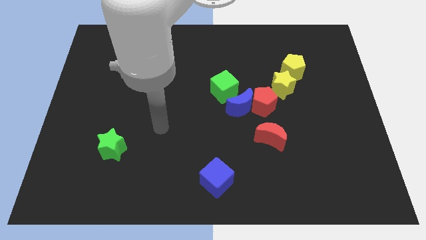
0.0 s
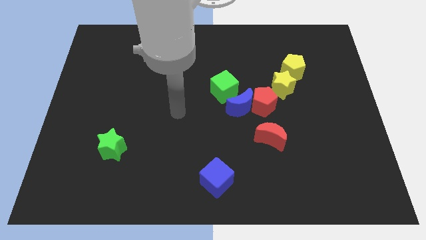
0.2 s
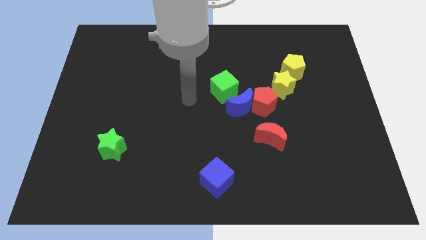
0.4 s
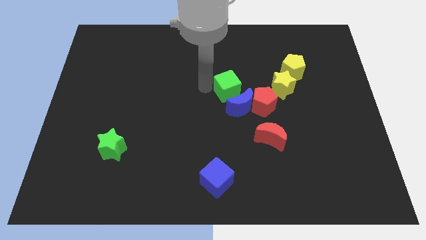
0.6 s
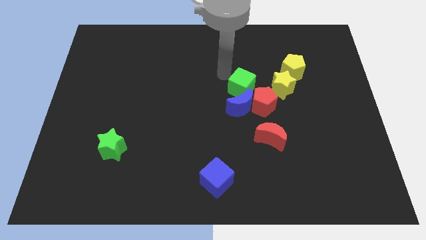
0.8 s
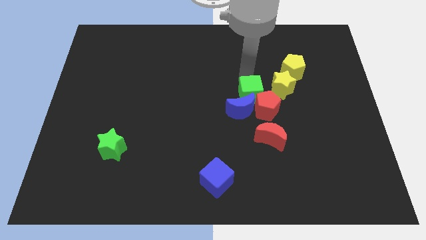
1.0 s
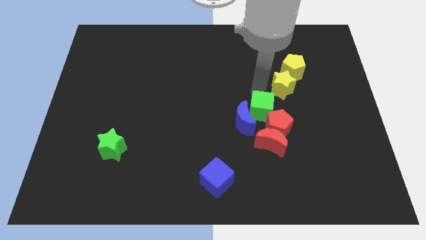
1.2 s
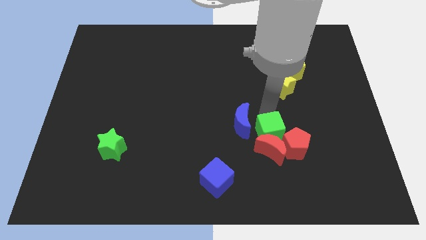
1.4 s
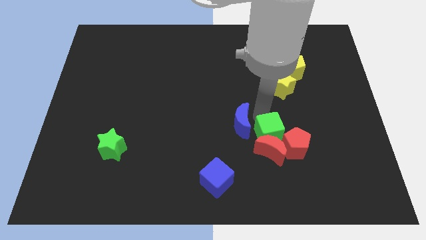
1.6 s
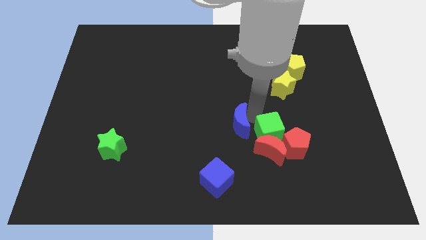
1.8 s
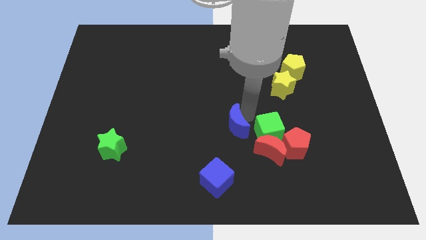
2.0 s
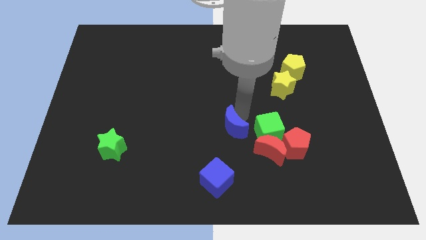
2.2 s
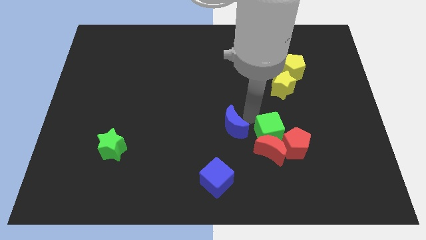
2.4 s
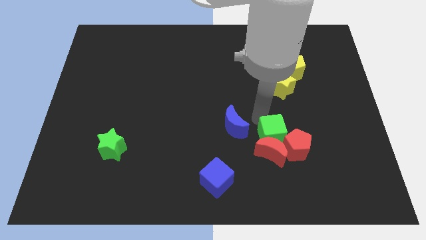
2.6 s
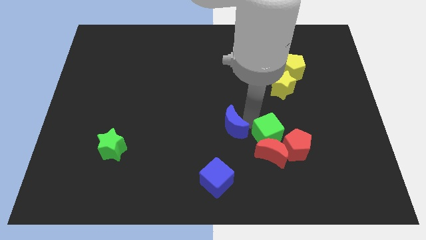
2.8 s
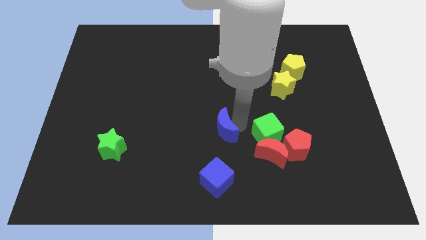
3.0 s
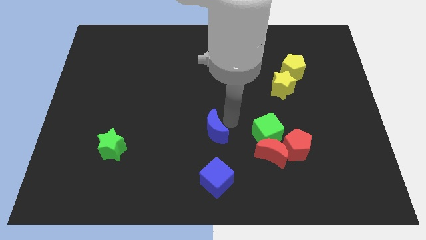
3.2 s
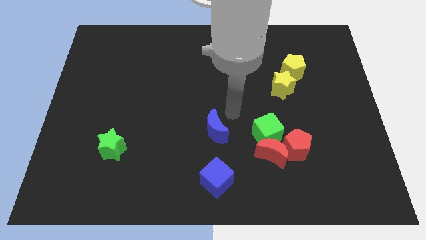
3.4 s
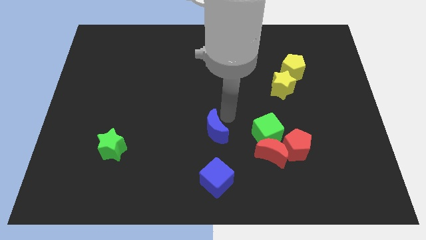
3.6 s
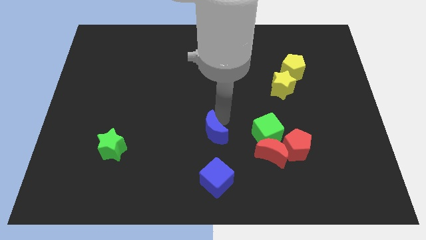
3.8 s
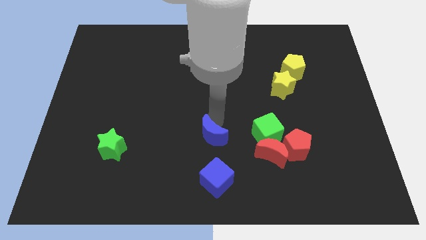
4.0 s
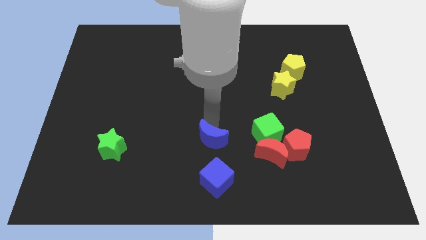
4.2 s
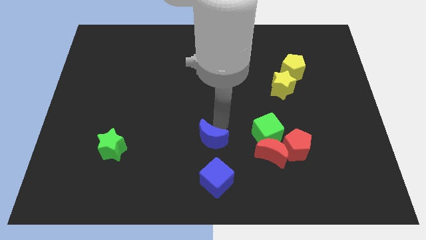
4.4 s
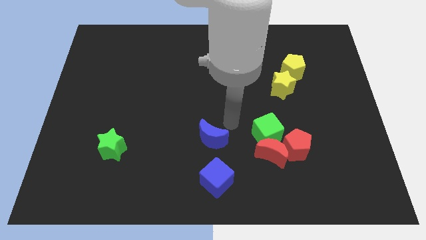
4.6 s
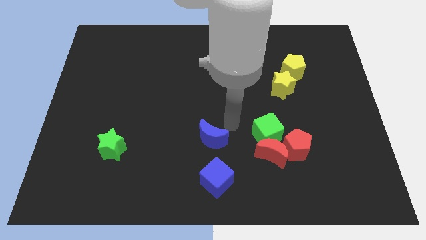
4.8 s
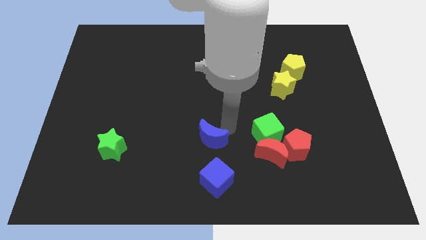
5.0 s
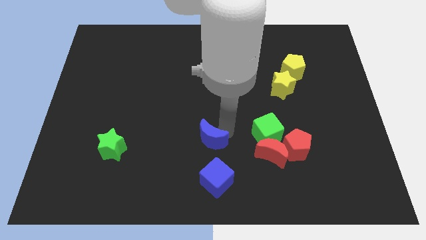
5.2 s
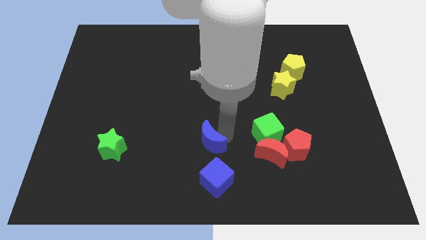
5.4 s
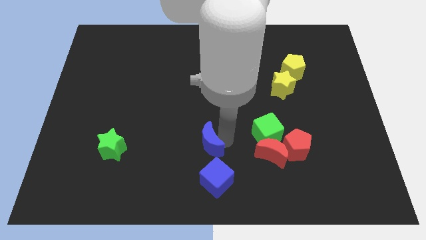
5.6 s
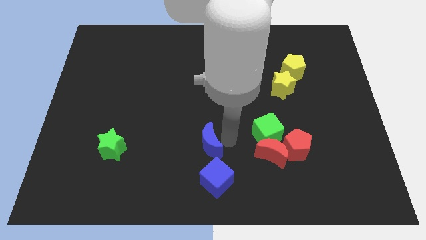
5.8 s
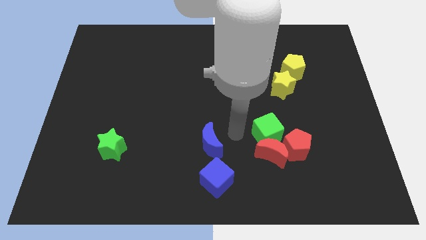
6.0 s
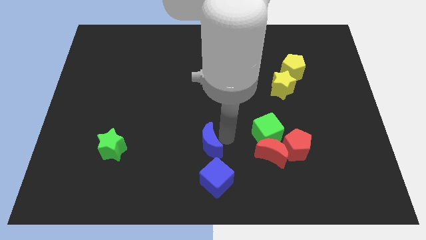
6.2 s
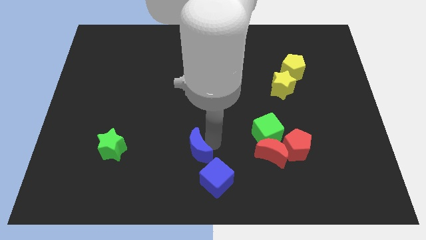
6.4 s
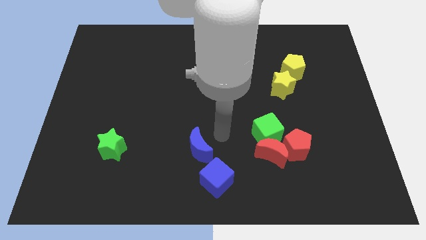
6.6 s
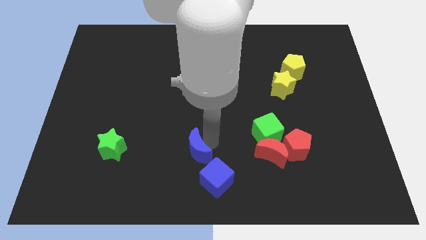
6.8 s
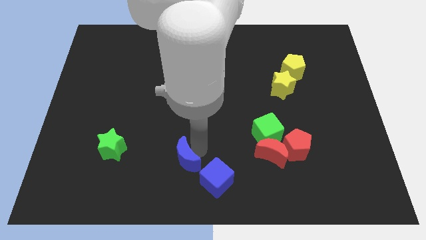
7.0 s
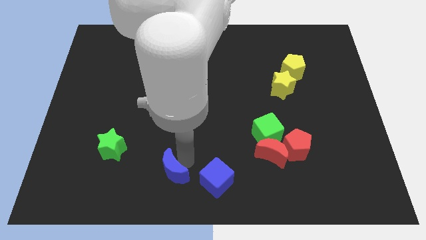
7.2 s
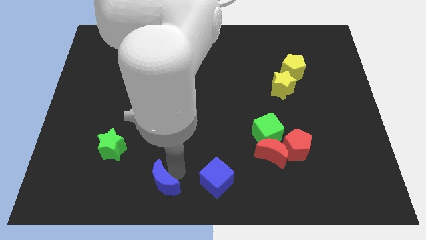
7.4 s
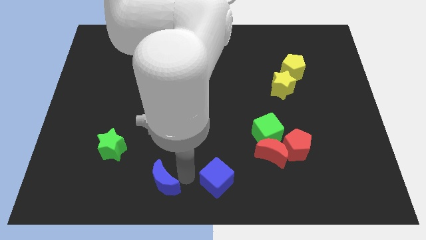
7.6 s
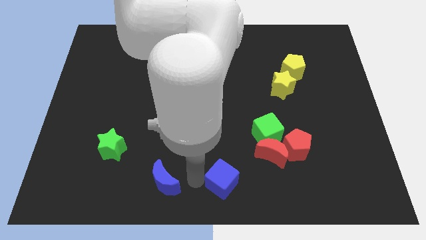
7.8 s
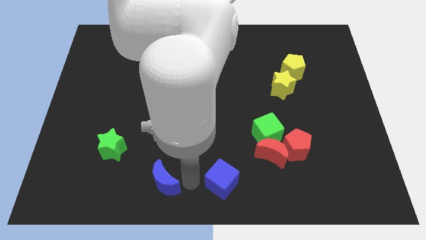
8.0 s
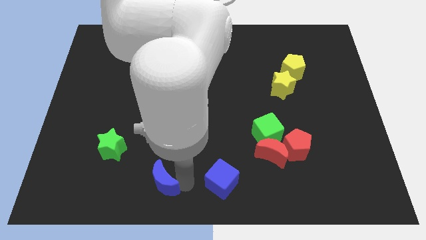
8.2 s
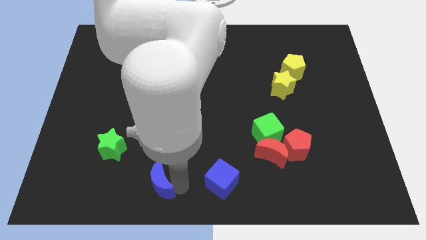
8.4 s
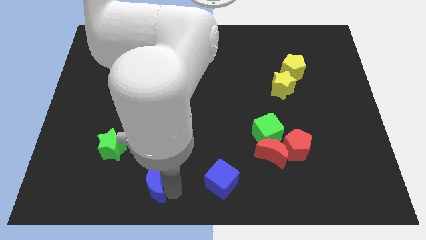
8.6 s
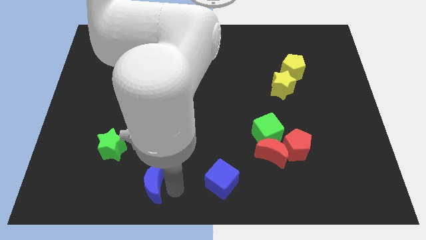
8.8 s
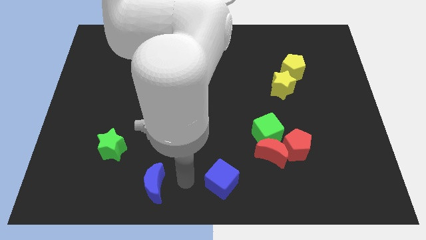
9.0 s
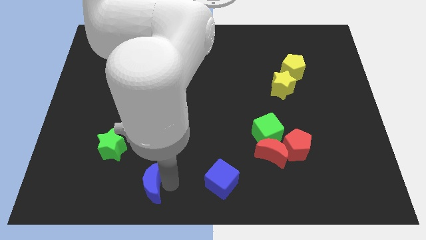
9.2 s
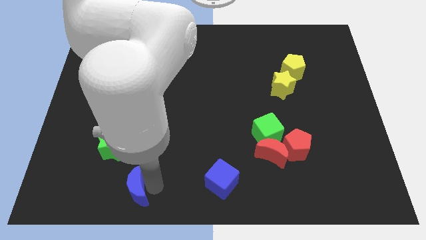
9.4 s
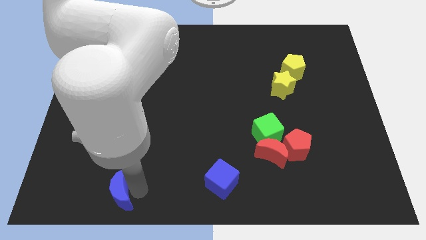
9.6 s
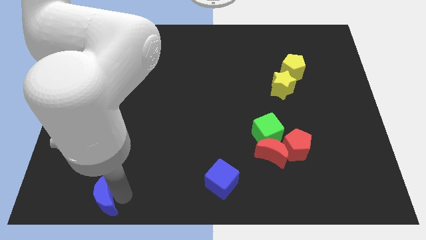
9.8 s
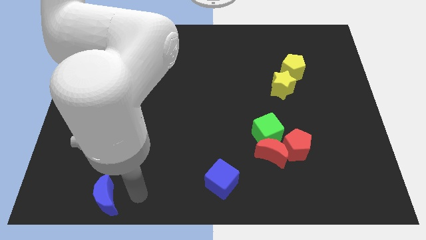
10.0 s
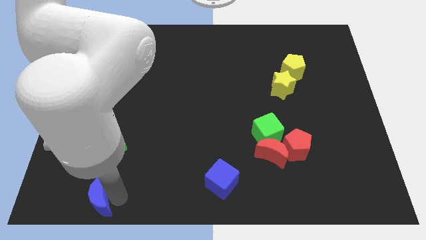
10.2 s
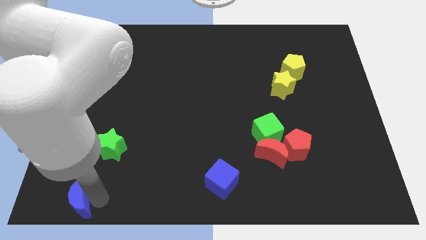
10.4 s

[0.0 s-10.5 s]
slide the blue moon to the lower left corner

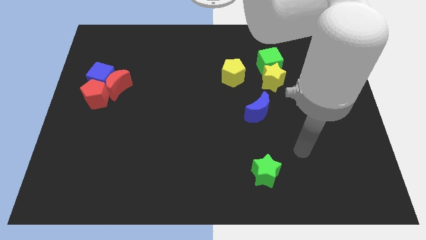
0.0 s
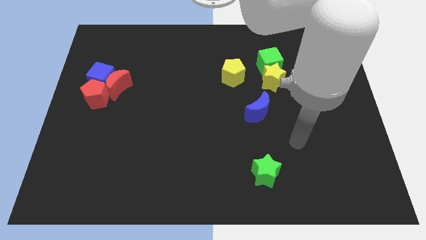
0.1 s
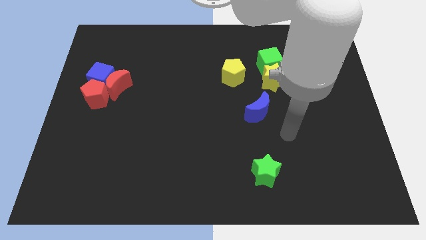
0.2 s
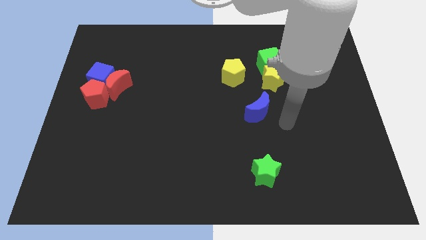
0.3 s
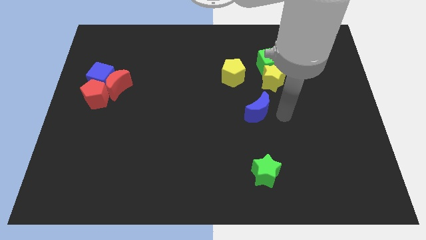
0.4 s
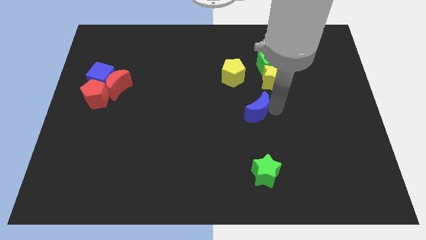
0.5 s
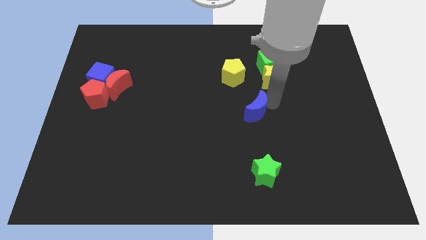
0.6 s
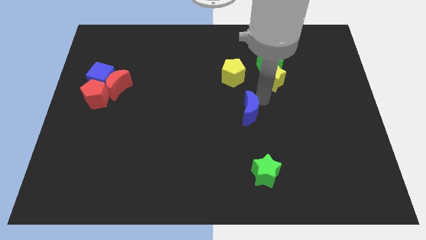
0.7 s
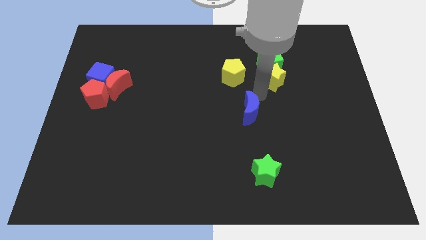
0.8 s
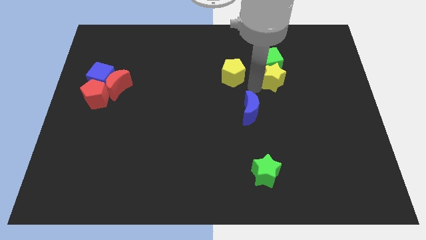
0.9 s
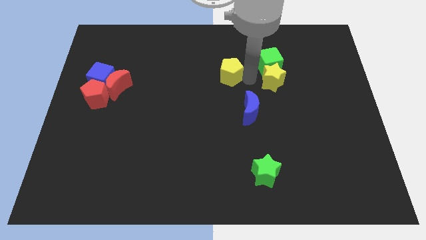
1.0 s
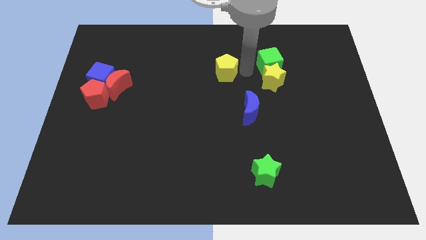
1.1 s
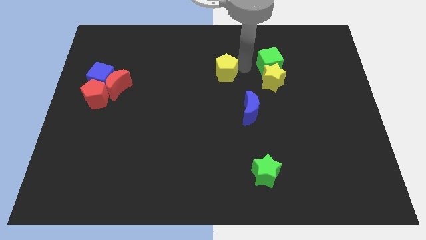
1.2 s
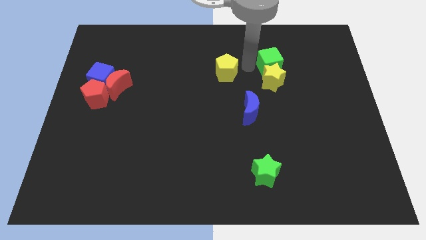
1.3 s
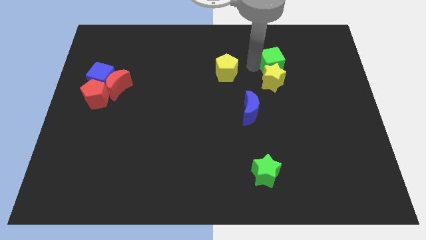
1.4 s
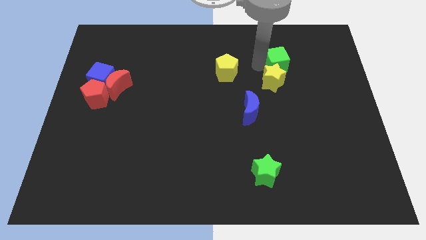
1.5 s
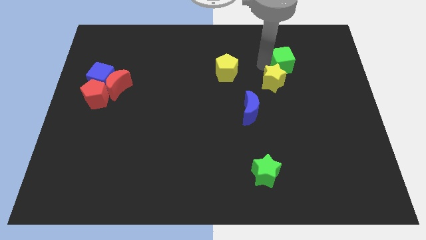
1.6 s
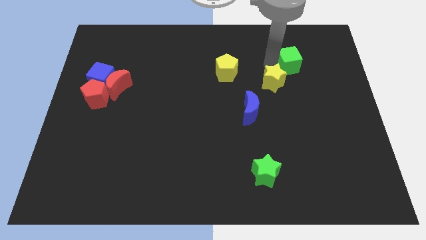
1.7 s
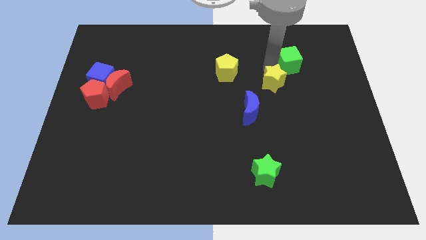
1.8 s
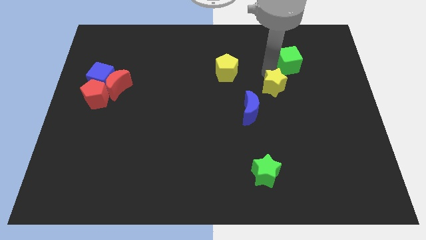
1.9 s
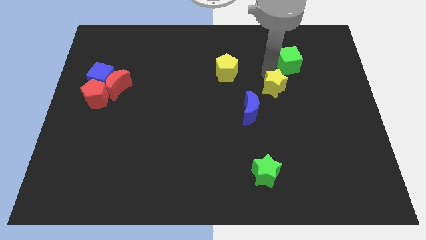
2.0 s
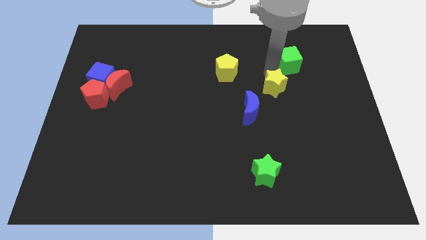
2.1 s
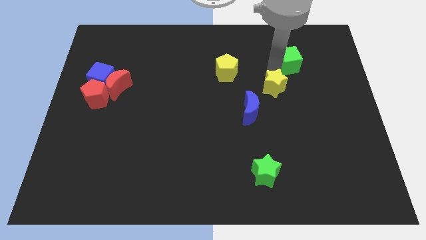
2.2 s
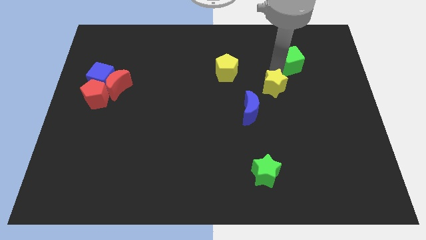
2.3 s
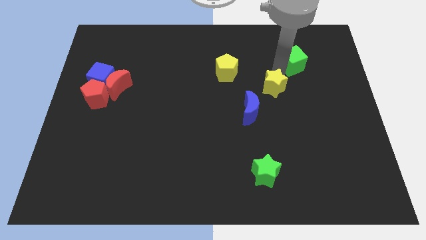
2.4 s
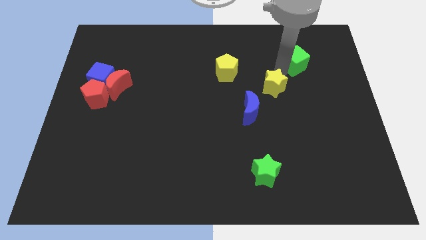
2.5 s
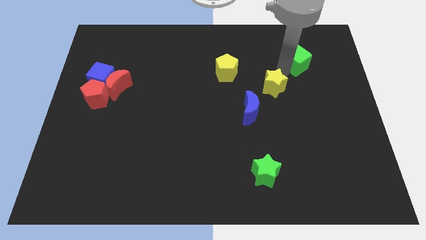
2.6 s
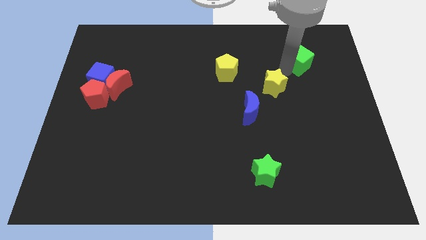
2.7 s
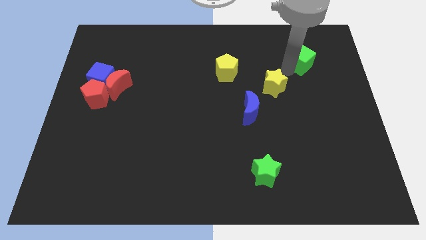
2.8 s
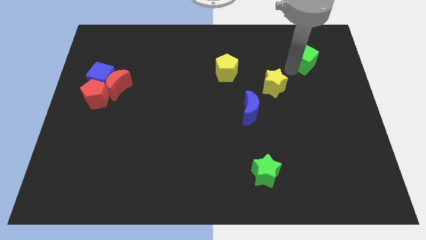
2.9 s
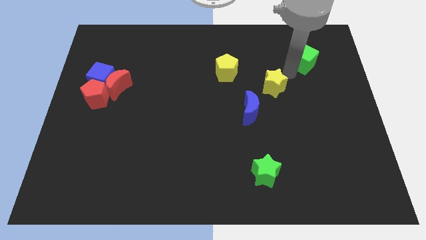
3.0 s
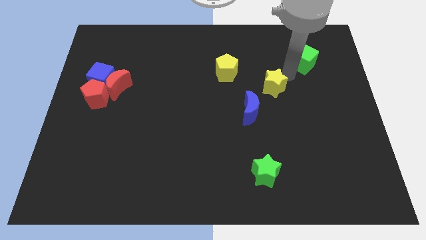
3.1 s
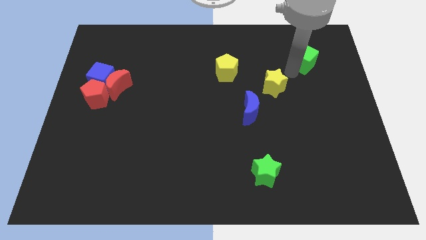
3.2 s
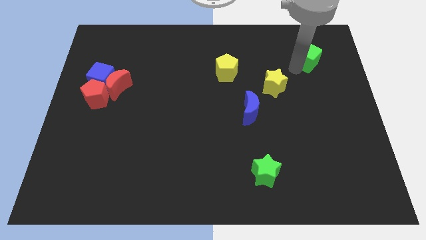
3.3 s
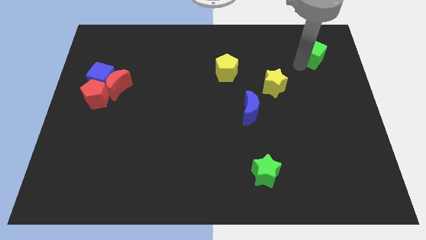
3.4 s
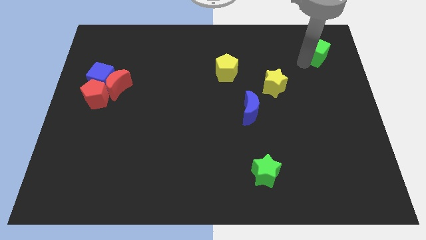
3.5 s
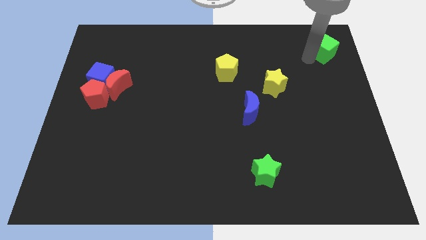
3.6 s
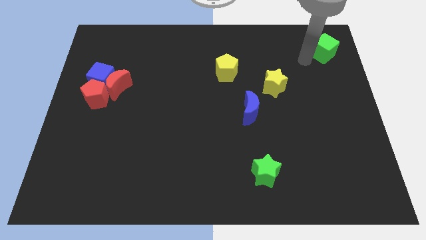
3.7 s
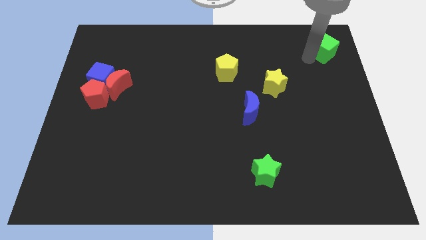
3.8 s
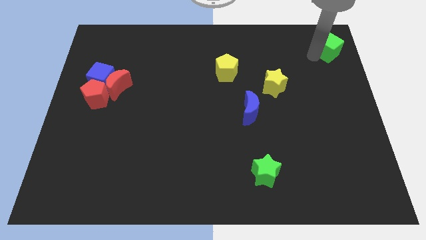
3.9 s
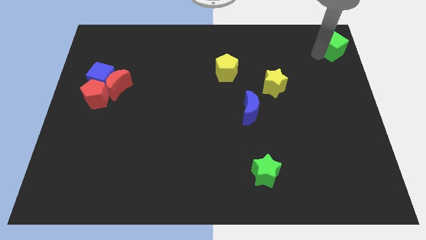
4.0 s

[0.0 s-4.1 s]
slide the green cube to the top right
